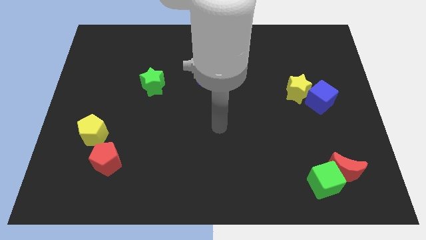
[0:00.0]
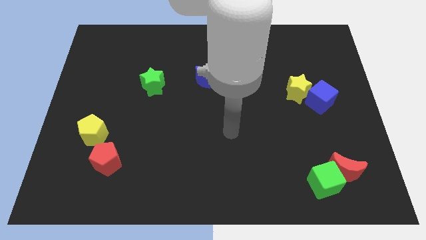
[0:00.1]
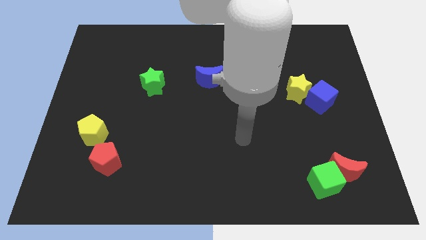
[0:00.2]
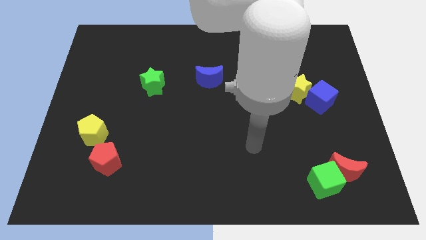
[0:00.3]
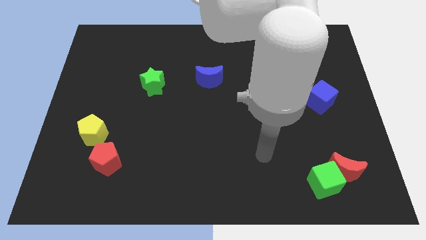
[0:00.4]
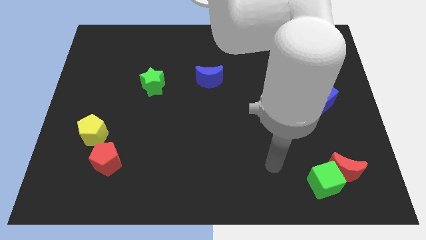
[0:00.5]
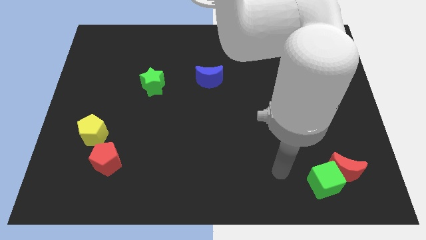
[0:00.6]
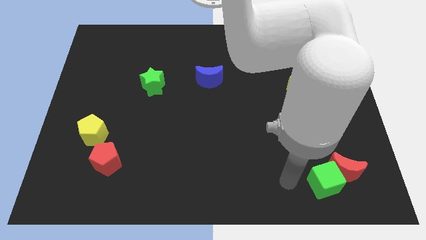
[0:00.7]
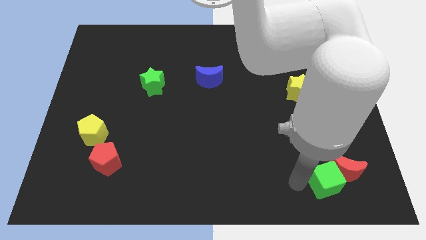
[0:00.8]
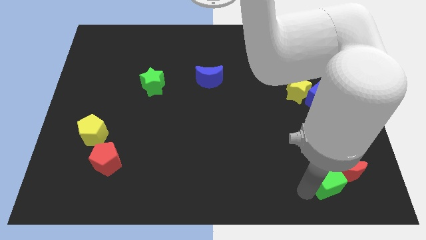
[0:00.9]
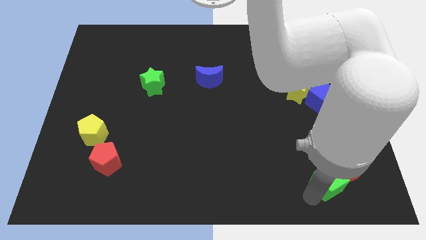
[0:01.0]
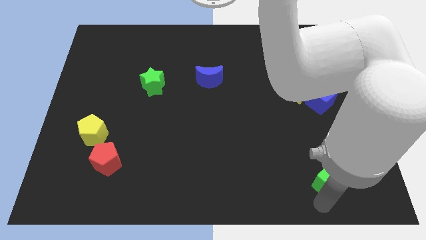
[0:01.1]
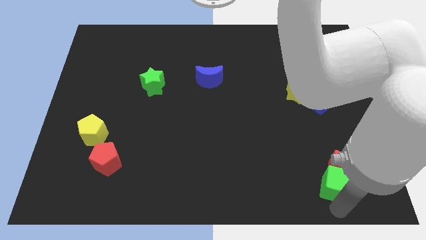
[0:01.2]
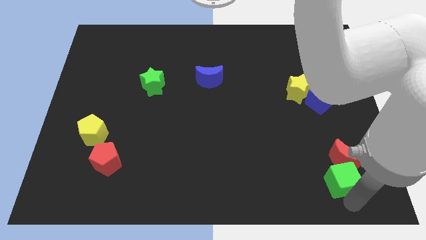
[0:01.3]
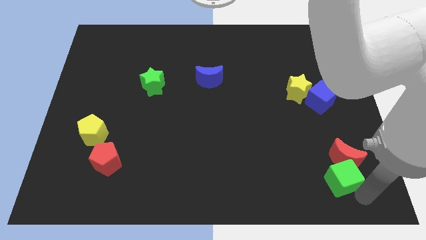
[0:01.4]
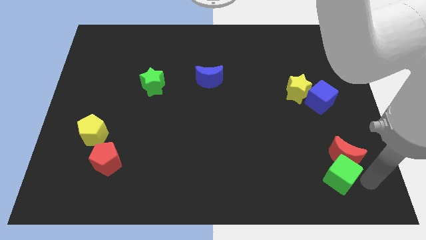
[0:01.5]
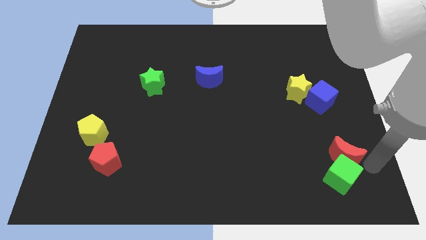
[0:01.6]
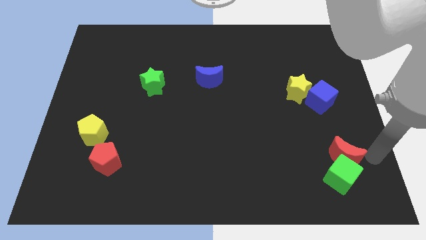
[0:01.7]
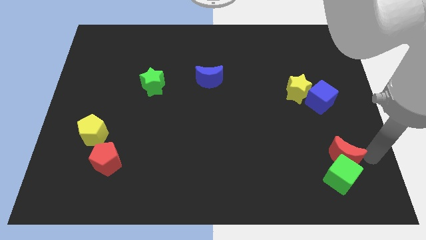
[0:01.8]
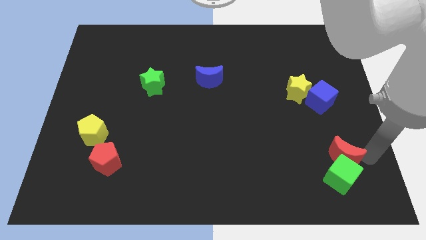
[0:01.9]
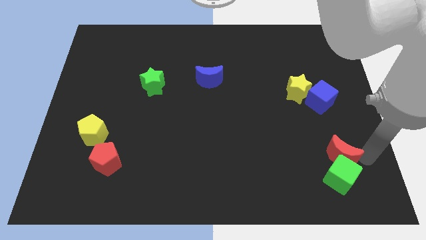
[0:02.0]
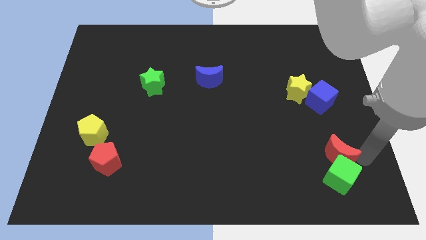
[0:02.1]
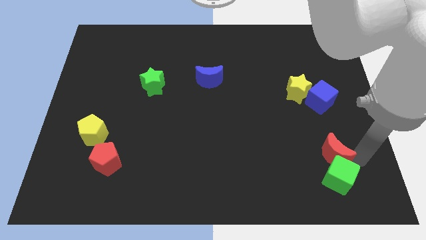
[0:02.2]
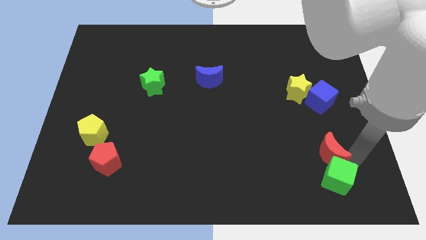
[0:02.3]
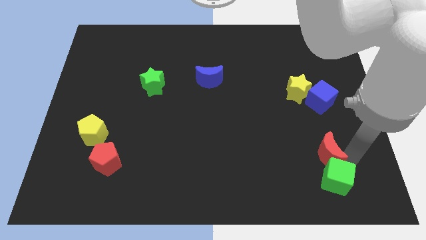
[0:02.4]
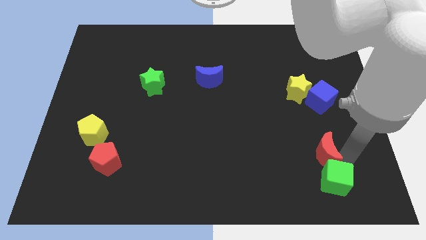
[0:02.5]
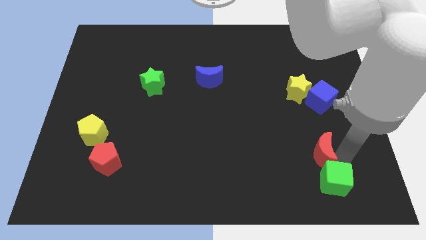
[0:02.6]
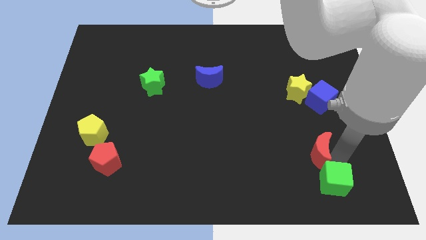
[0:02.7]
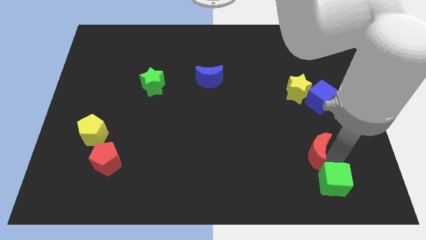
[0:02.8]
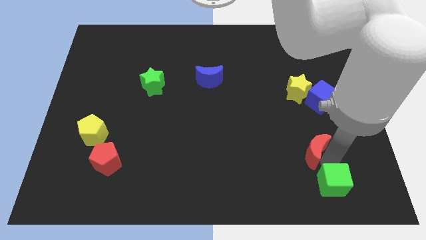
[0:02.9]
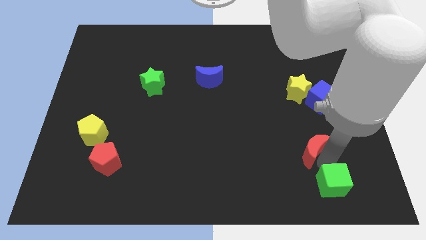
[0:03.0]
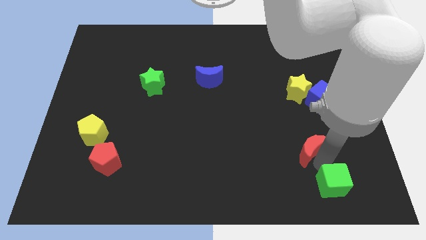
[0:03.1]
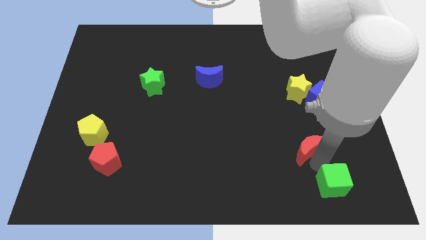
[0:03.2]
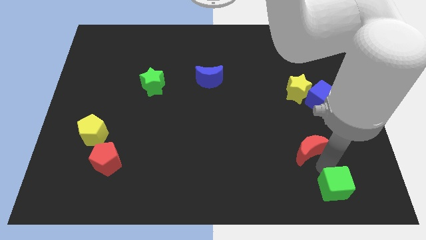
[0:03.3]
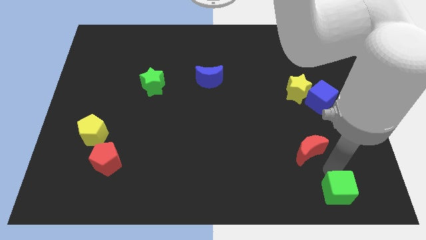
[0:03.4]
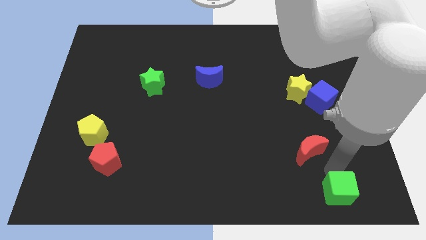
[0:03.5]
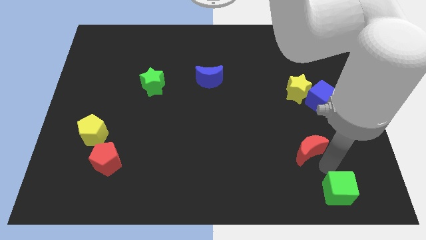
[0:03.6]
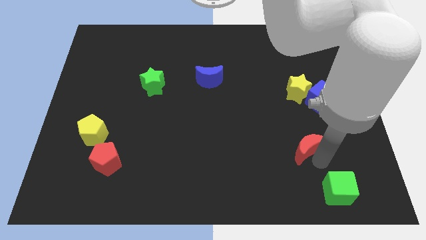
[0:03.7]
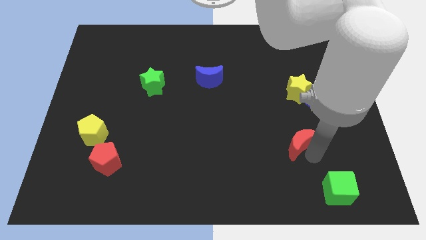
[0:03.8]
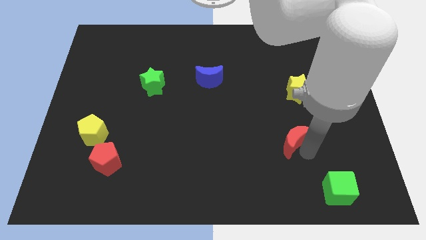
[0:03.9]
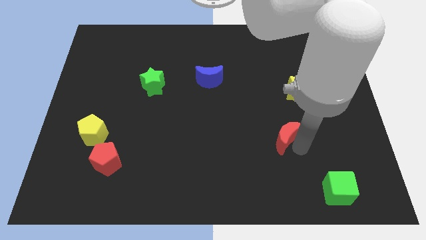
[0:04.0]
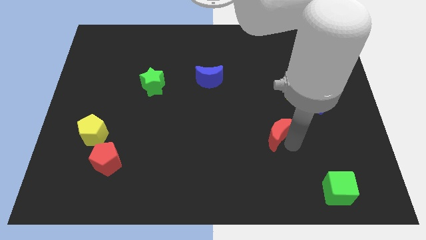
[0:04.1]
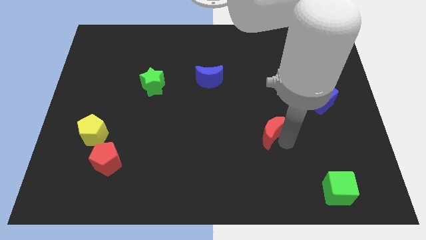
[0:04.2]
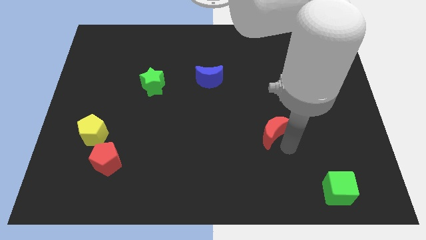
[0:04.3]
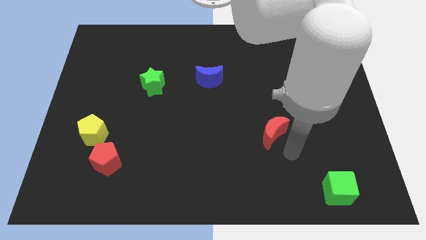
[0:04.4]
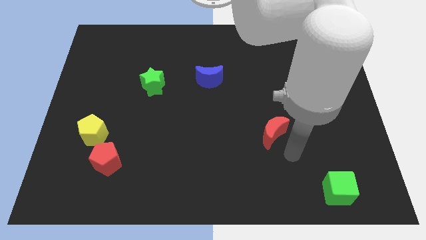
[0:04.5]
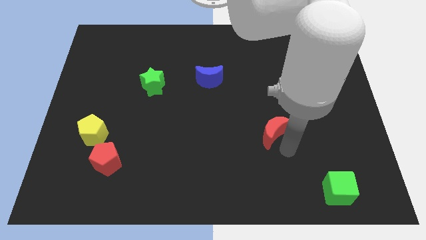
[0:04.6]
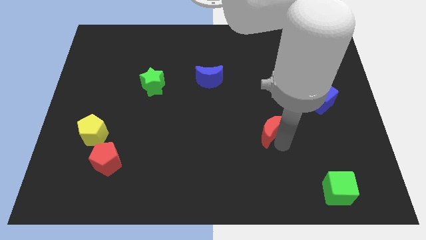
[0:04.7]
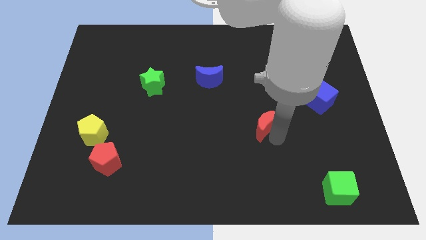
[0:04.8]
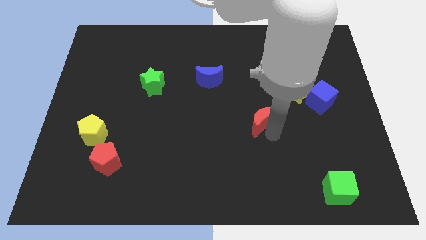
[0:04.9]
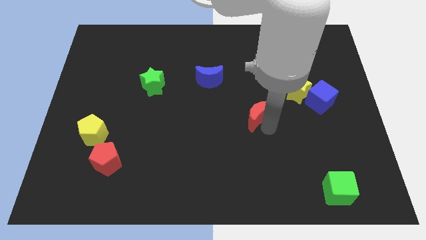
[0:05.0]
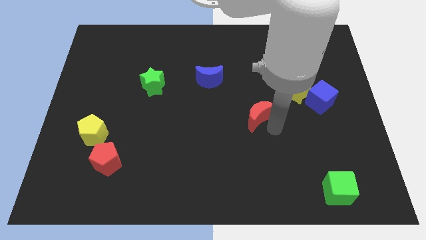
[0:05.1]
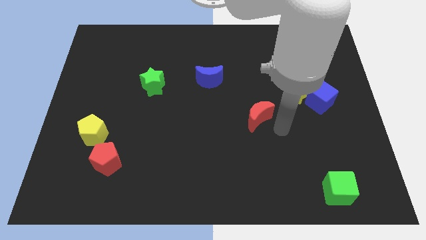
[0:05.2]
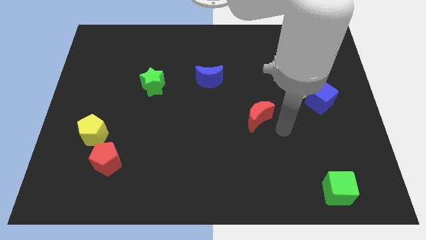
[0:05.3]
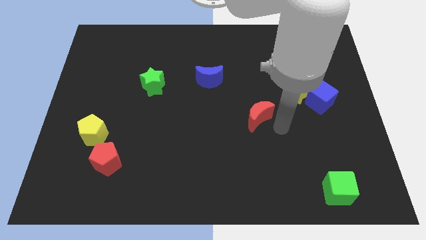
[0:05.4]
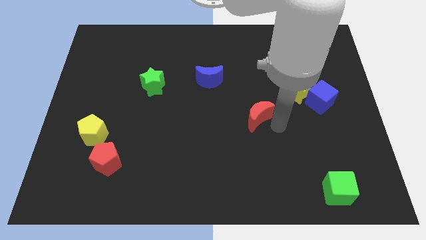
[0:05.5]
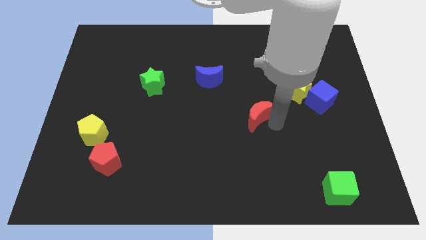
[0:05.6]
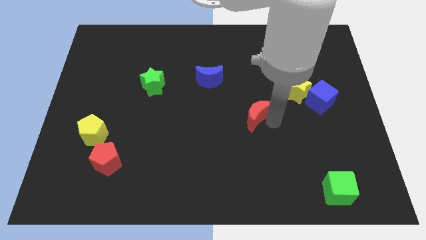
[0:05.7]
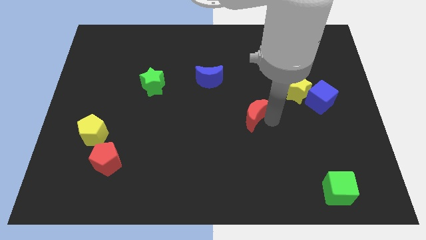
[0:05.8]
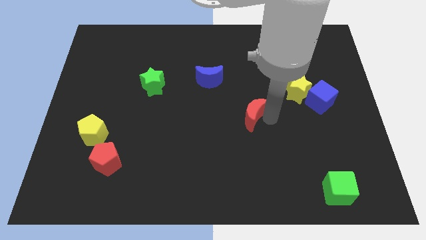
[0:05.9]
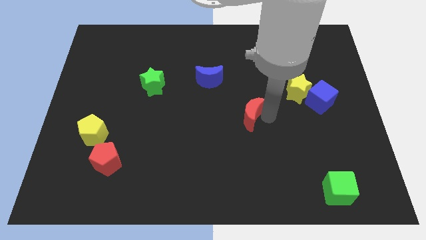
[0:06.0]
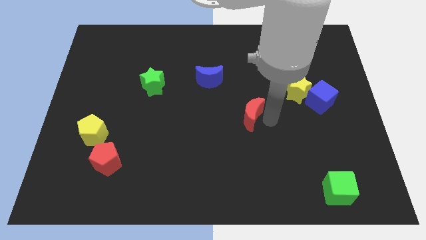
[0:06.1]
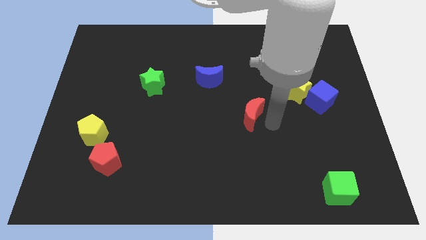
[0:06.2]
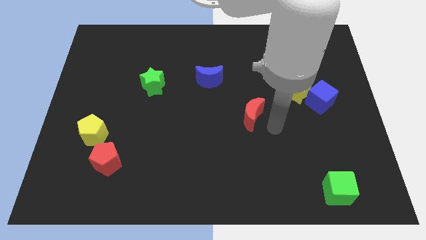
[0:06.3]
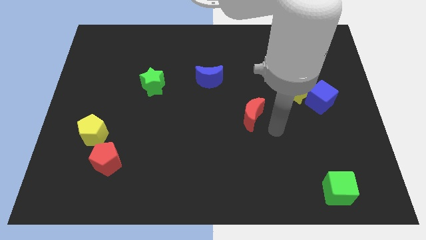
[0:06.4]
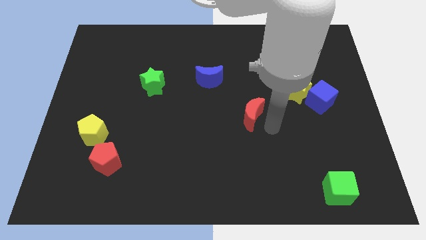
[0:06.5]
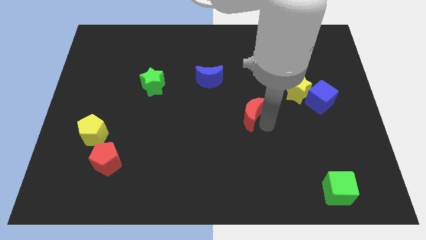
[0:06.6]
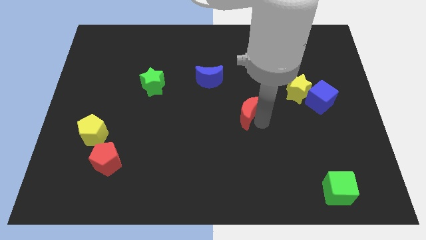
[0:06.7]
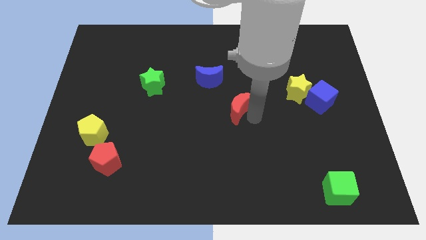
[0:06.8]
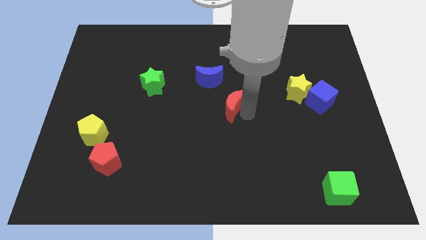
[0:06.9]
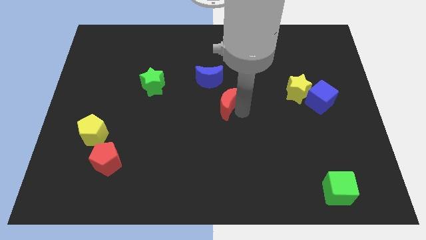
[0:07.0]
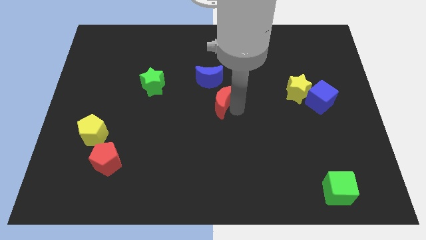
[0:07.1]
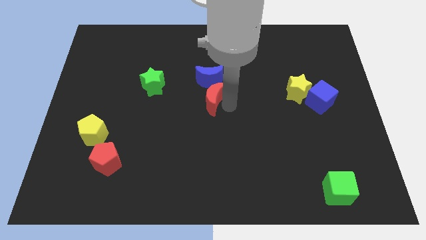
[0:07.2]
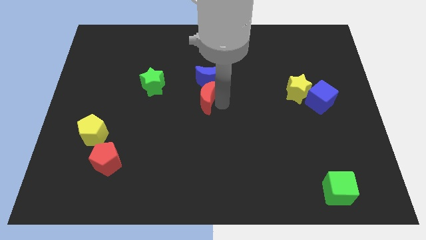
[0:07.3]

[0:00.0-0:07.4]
put the red moon diagonally down and to the left of the blue moon
